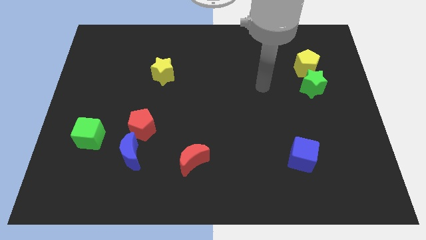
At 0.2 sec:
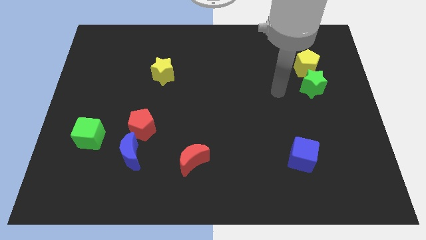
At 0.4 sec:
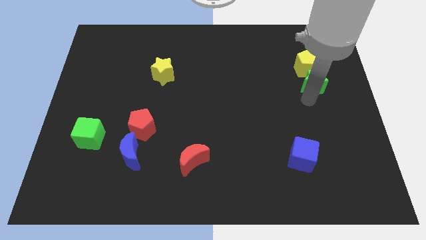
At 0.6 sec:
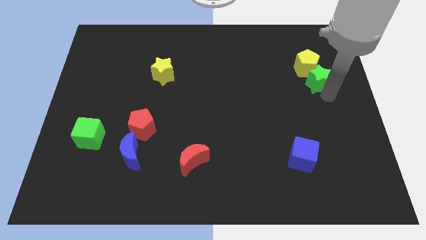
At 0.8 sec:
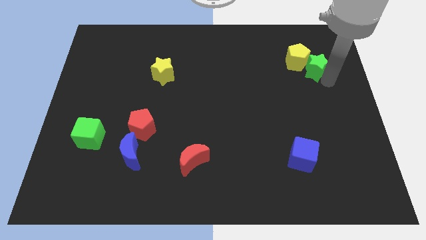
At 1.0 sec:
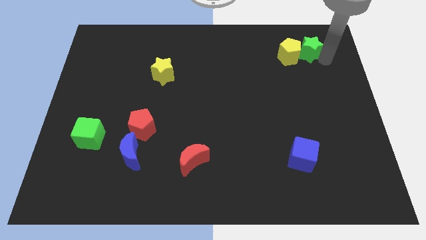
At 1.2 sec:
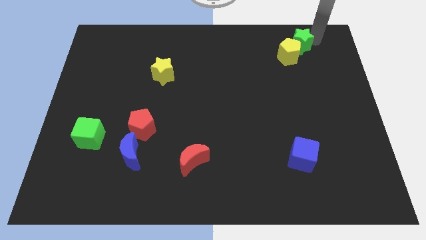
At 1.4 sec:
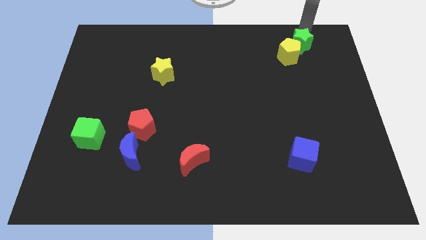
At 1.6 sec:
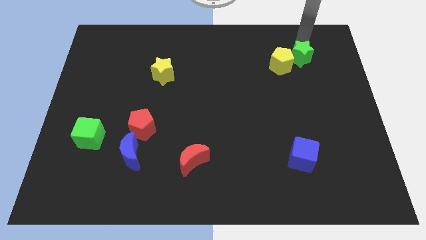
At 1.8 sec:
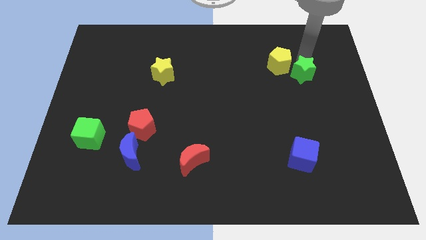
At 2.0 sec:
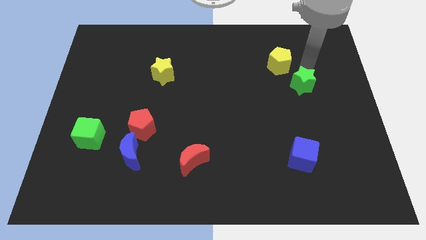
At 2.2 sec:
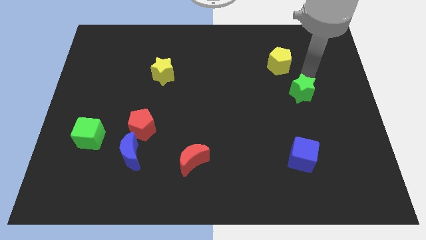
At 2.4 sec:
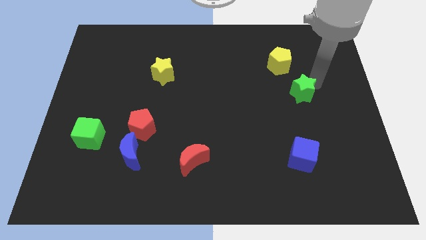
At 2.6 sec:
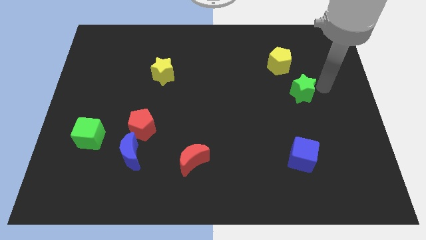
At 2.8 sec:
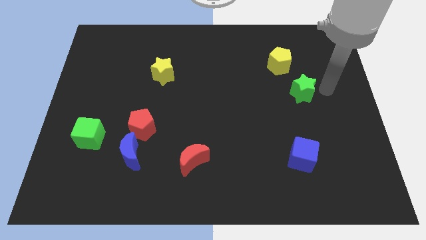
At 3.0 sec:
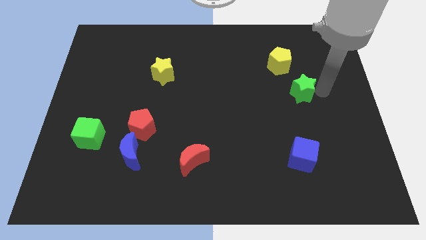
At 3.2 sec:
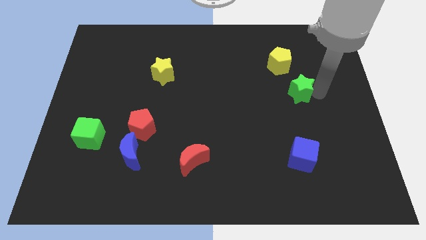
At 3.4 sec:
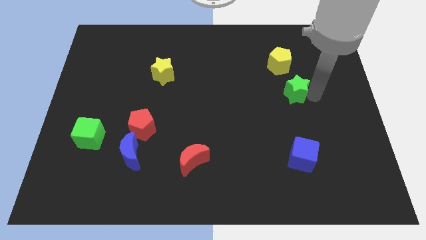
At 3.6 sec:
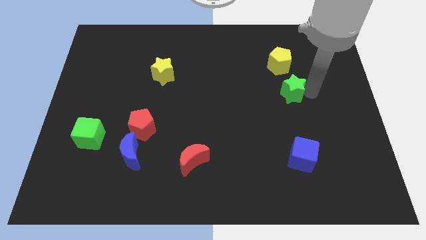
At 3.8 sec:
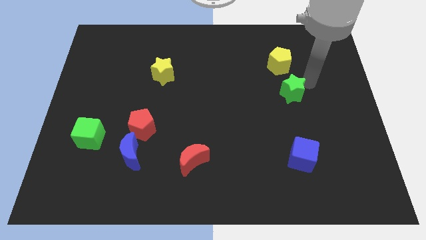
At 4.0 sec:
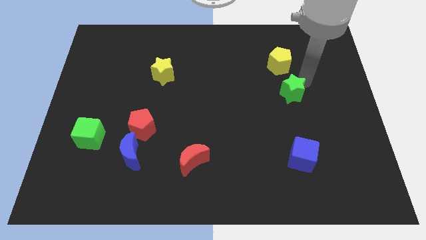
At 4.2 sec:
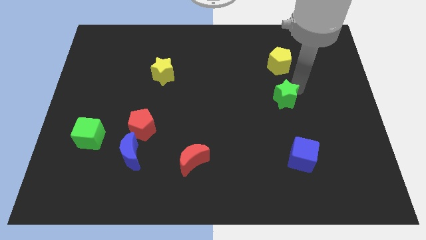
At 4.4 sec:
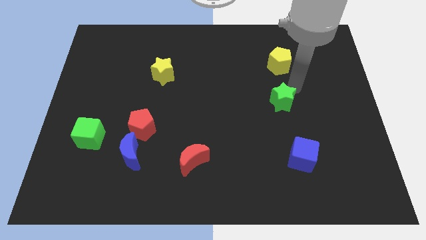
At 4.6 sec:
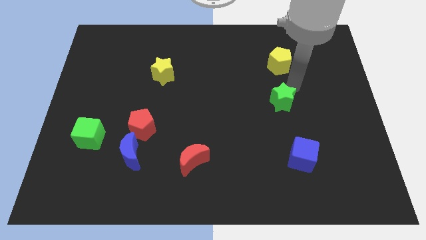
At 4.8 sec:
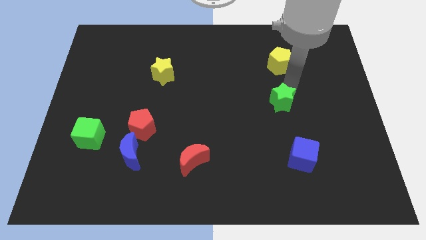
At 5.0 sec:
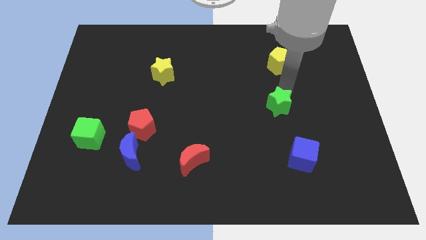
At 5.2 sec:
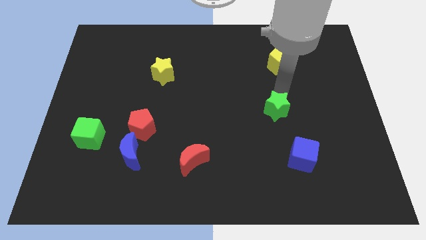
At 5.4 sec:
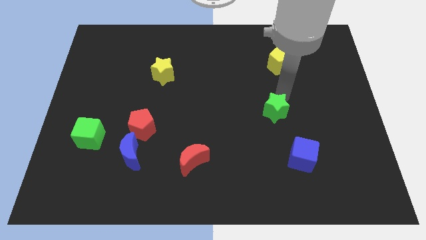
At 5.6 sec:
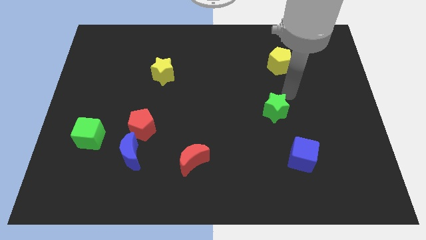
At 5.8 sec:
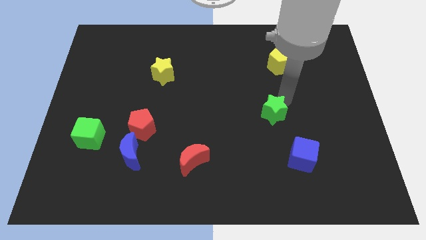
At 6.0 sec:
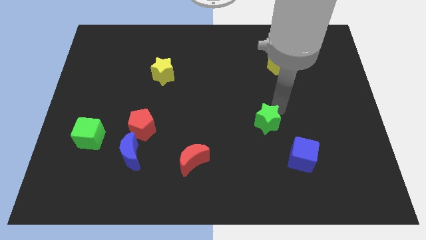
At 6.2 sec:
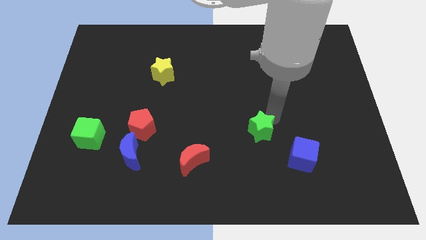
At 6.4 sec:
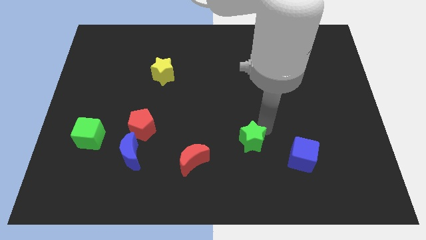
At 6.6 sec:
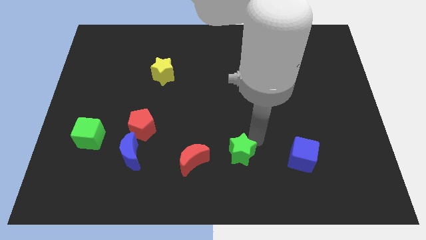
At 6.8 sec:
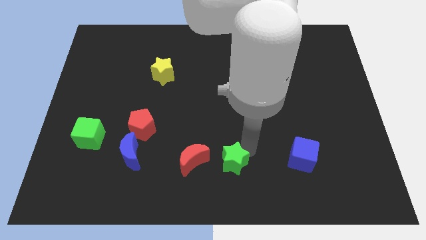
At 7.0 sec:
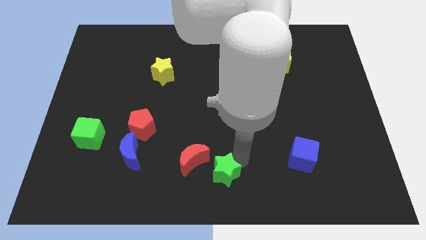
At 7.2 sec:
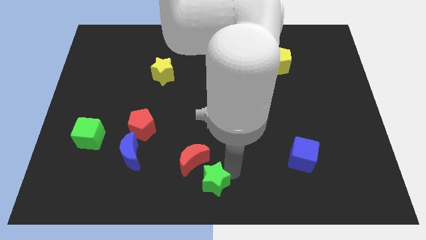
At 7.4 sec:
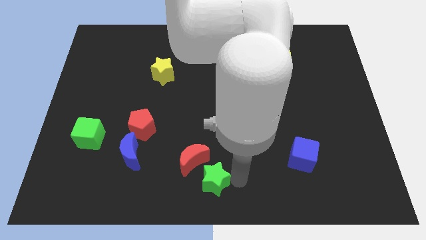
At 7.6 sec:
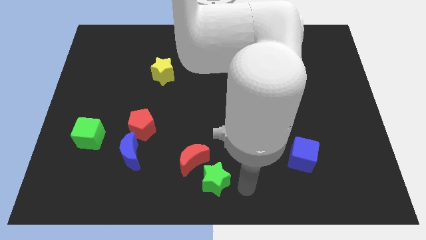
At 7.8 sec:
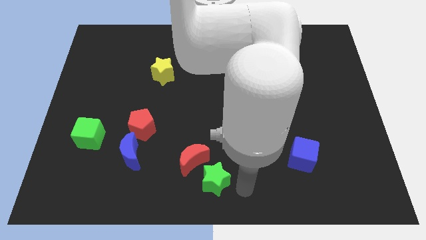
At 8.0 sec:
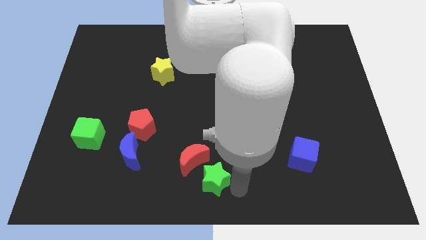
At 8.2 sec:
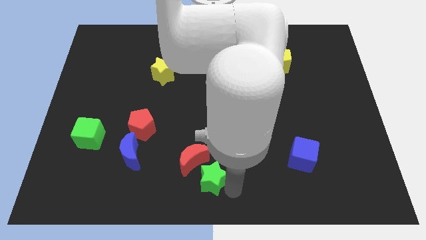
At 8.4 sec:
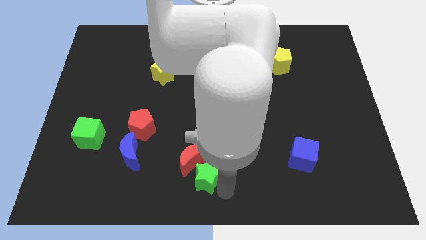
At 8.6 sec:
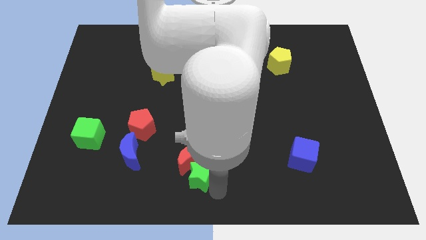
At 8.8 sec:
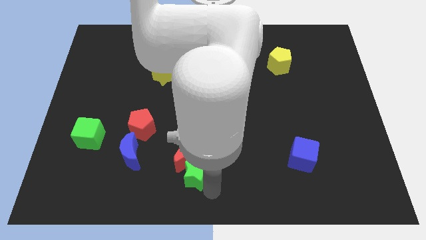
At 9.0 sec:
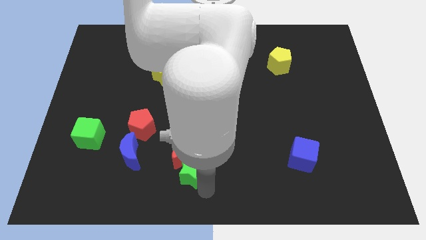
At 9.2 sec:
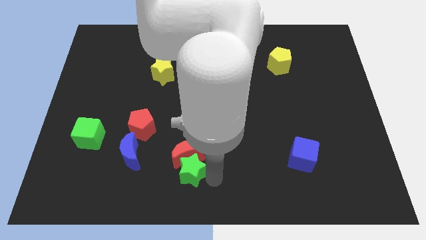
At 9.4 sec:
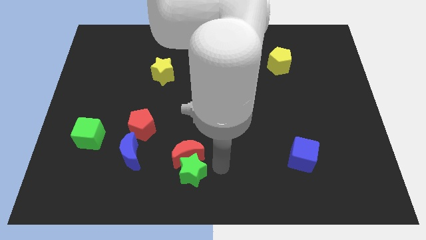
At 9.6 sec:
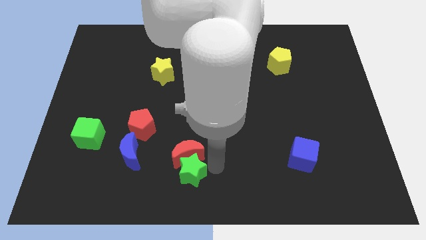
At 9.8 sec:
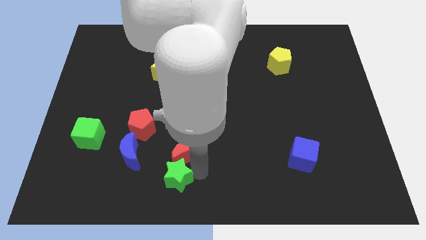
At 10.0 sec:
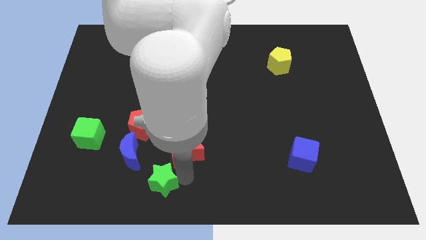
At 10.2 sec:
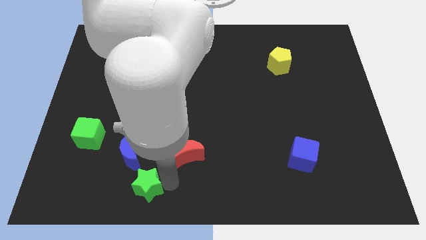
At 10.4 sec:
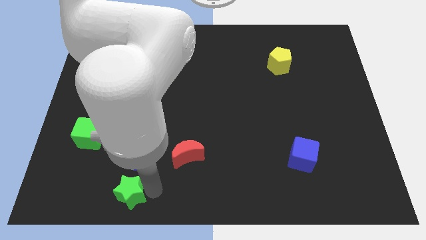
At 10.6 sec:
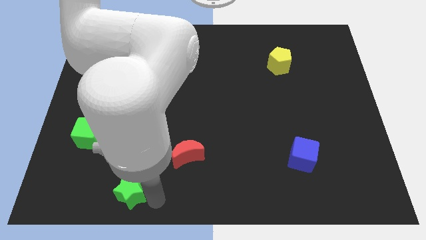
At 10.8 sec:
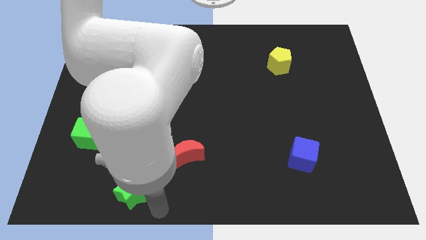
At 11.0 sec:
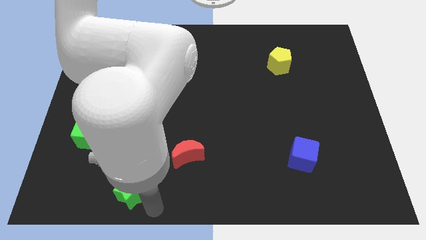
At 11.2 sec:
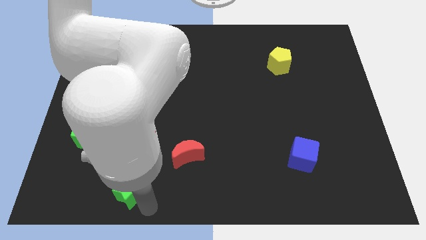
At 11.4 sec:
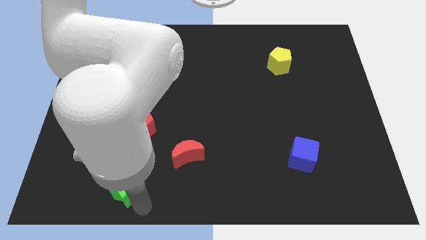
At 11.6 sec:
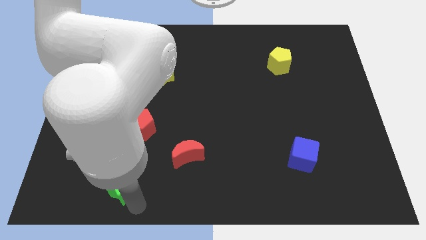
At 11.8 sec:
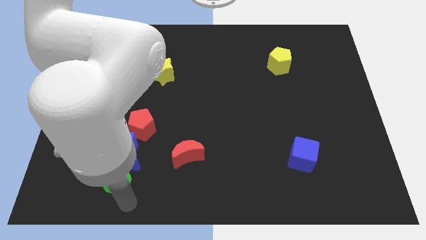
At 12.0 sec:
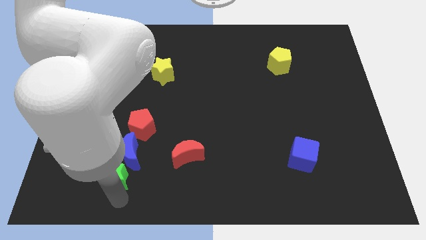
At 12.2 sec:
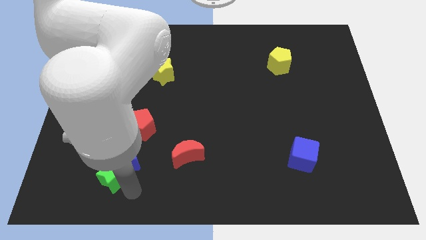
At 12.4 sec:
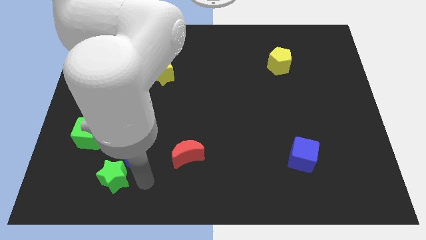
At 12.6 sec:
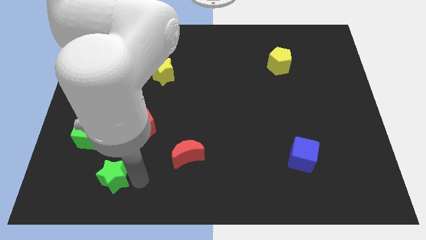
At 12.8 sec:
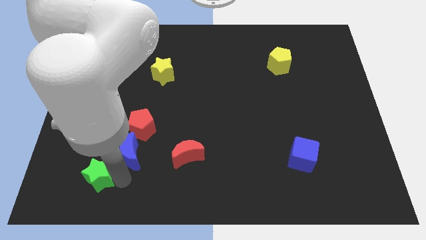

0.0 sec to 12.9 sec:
put the green star to the bottom side of the green cube
